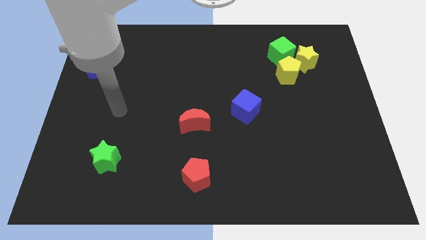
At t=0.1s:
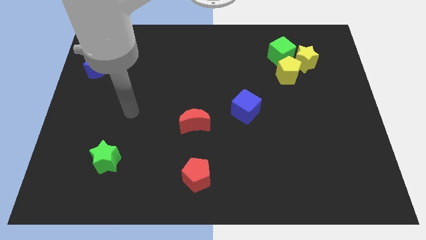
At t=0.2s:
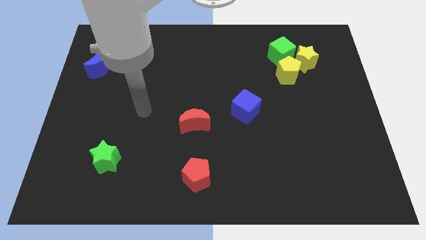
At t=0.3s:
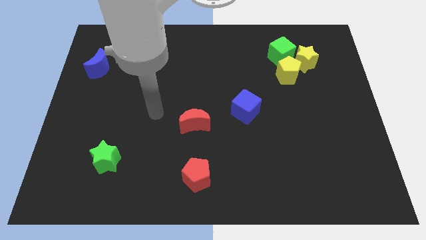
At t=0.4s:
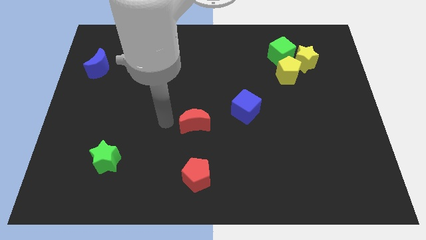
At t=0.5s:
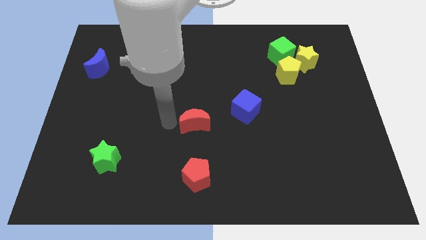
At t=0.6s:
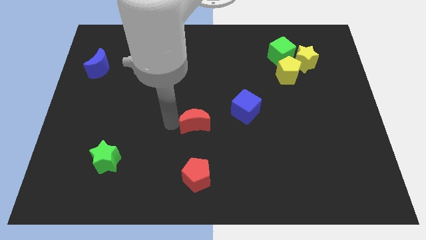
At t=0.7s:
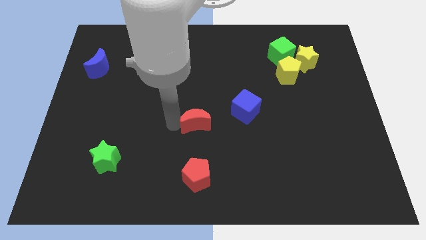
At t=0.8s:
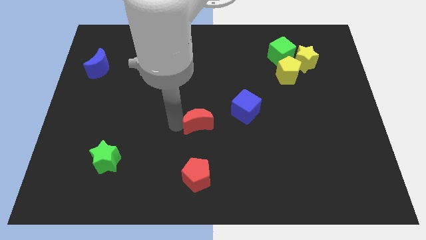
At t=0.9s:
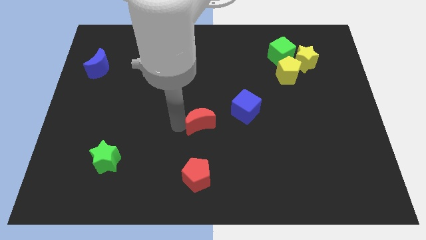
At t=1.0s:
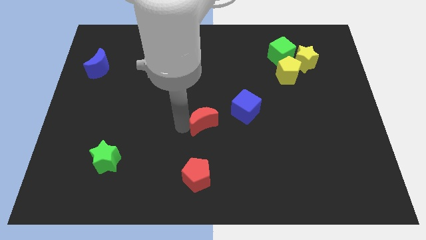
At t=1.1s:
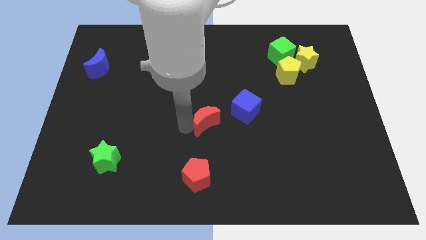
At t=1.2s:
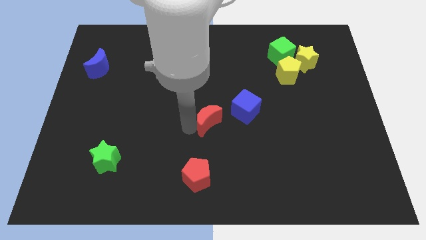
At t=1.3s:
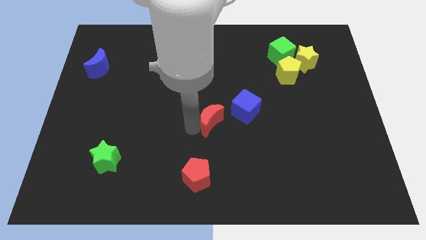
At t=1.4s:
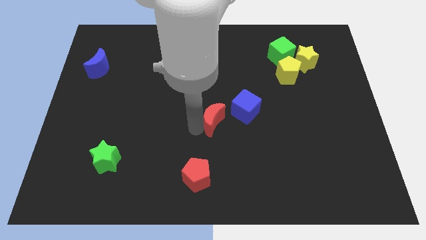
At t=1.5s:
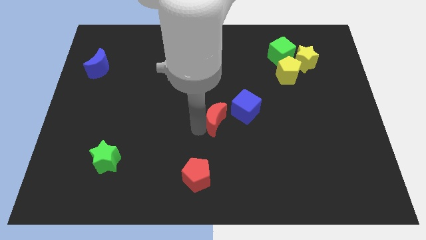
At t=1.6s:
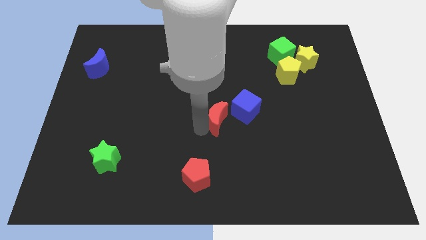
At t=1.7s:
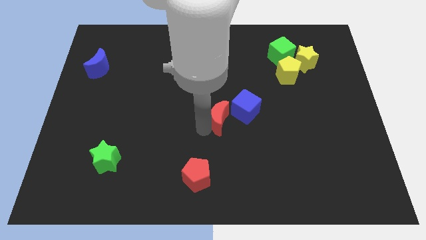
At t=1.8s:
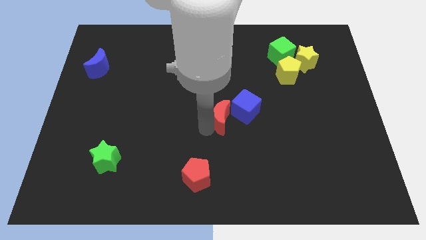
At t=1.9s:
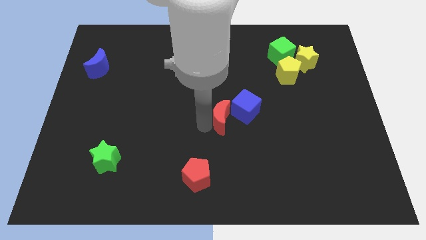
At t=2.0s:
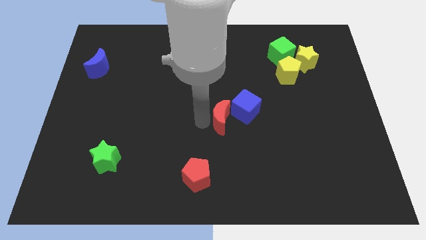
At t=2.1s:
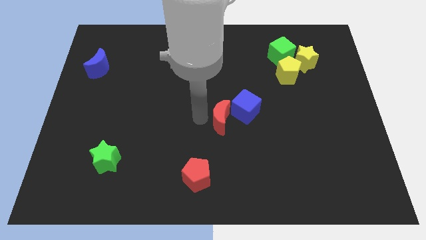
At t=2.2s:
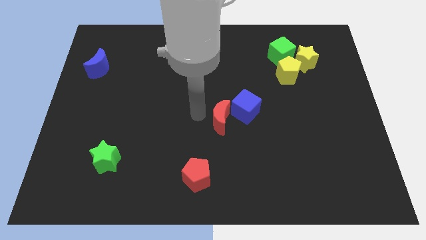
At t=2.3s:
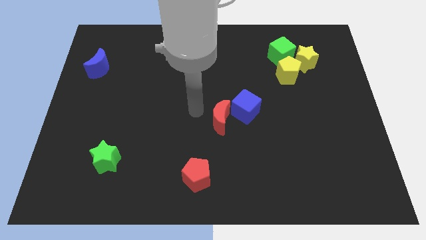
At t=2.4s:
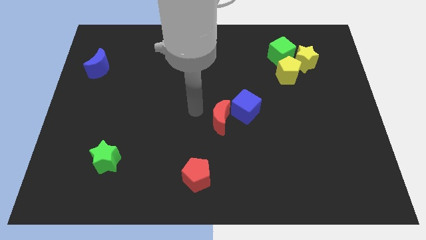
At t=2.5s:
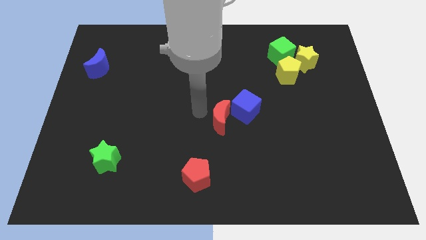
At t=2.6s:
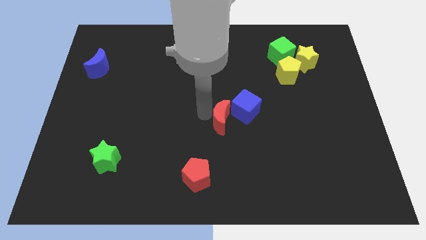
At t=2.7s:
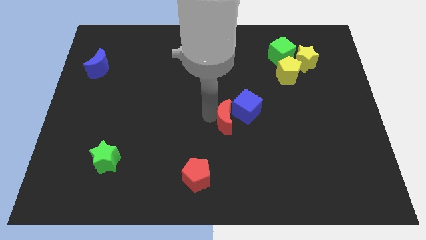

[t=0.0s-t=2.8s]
slightly push the red moon to the right

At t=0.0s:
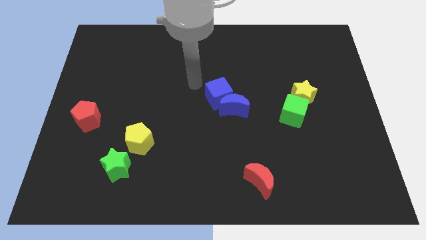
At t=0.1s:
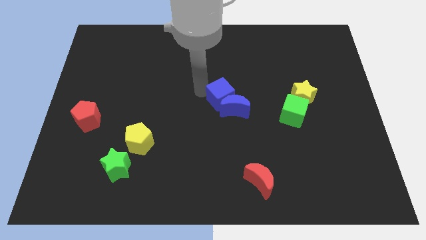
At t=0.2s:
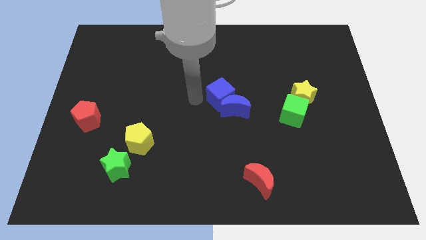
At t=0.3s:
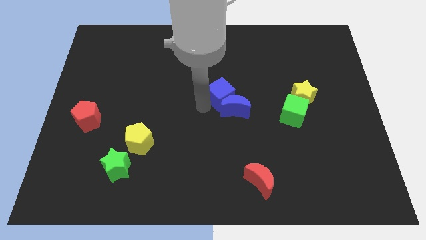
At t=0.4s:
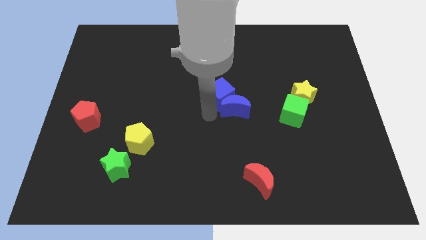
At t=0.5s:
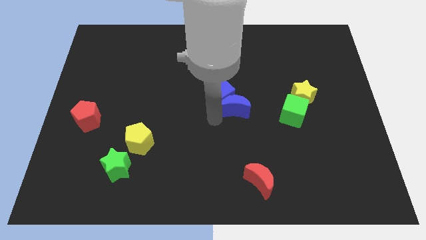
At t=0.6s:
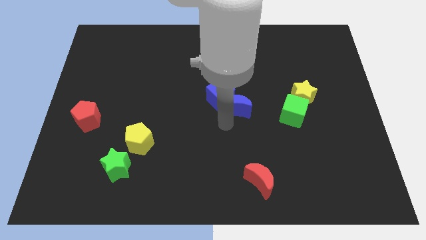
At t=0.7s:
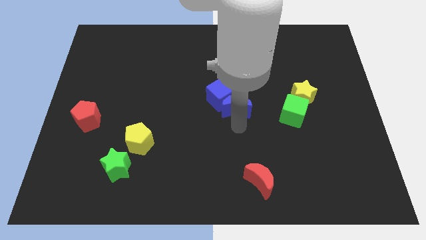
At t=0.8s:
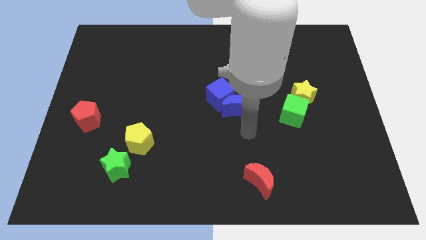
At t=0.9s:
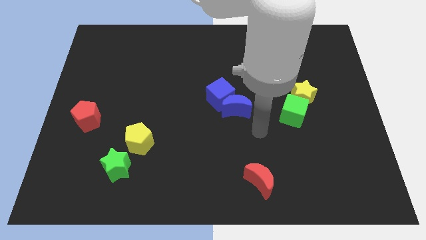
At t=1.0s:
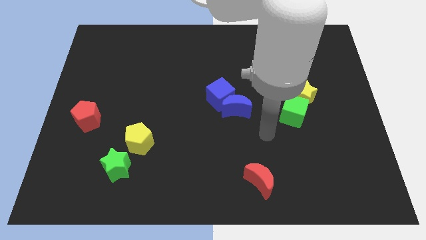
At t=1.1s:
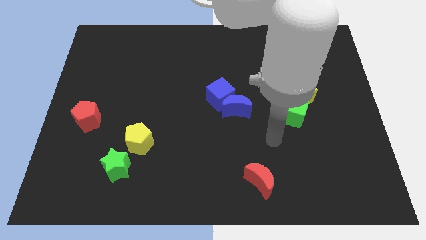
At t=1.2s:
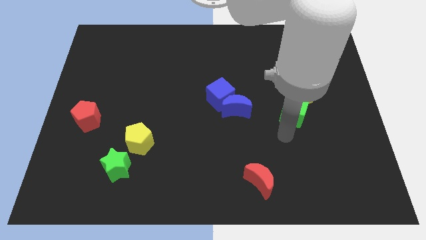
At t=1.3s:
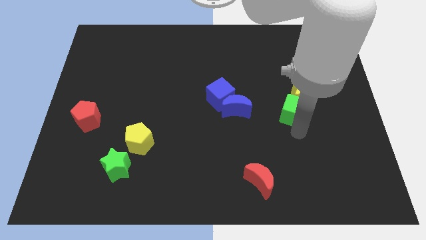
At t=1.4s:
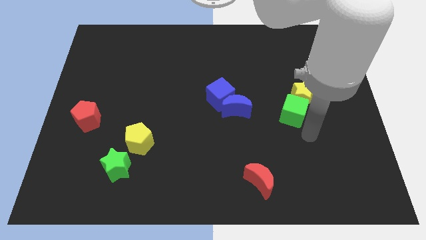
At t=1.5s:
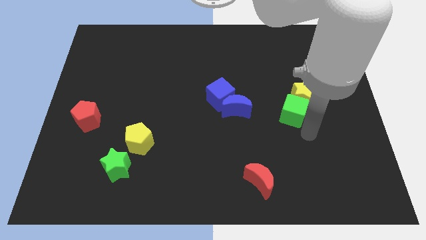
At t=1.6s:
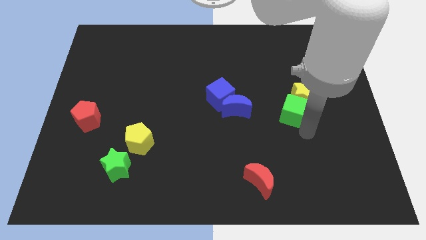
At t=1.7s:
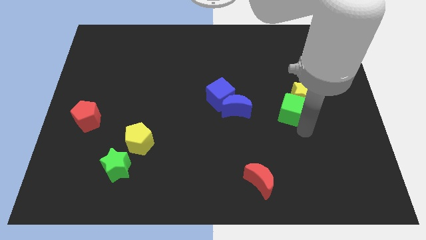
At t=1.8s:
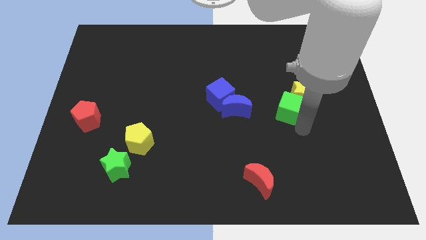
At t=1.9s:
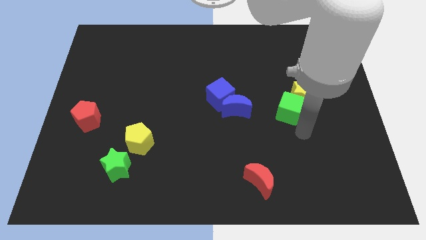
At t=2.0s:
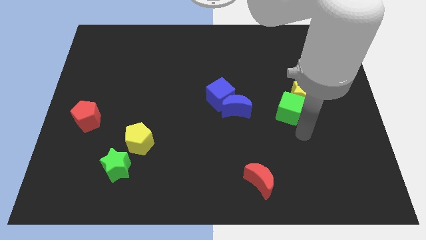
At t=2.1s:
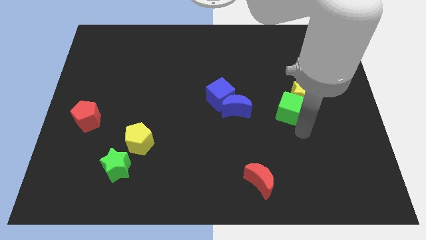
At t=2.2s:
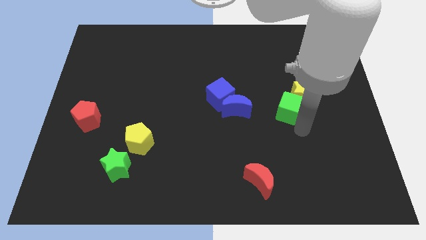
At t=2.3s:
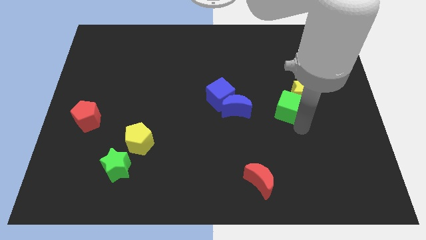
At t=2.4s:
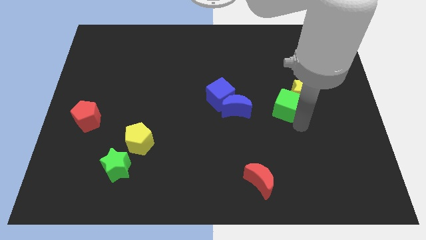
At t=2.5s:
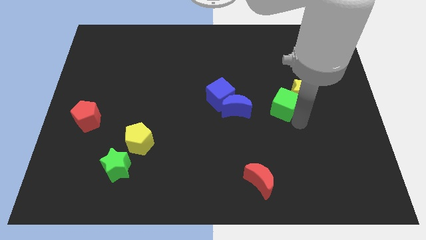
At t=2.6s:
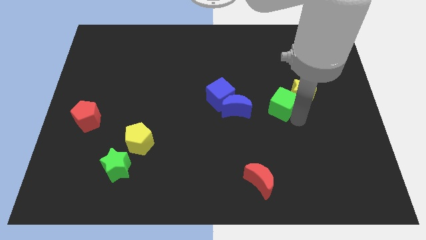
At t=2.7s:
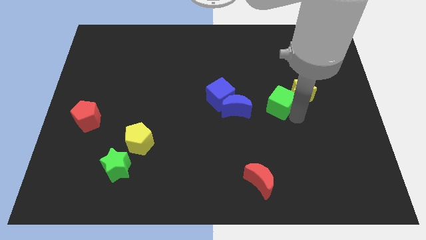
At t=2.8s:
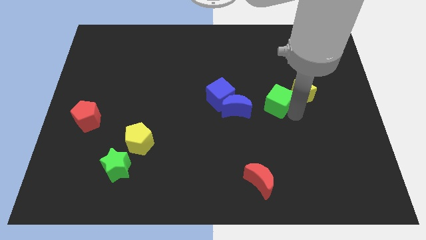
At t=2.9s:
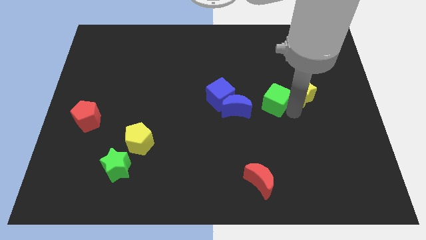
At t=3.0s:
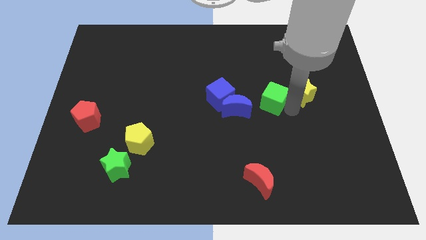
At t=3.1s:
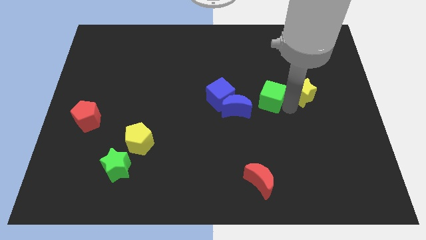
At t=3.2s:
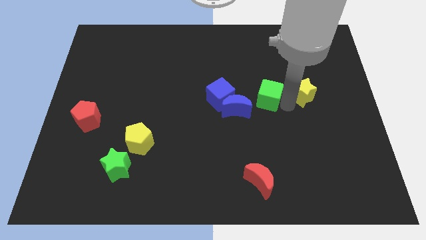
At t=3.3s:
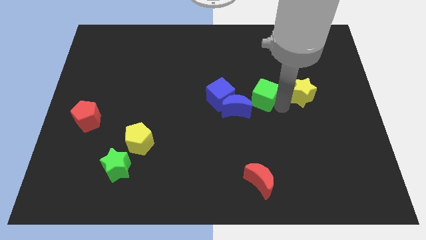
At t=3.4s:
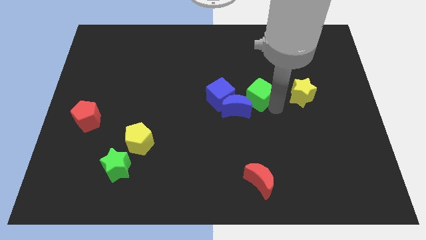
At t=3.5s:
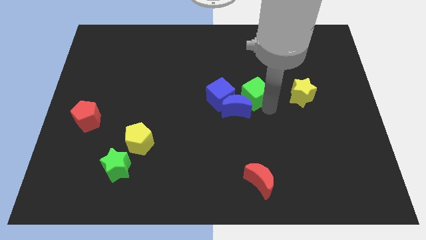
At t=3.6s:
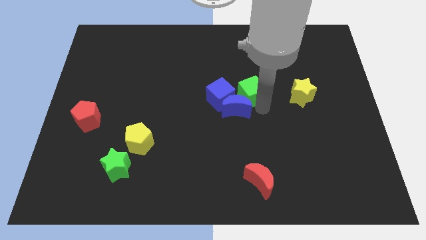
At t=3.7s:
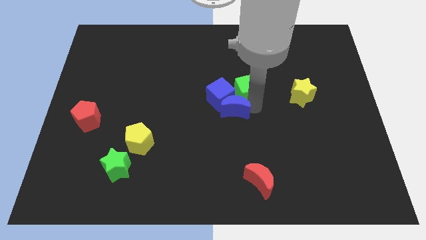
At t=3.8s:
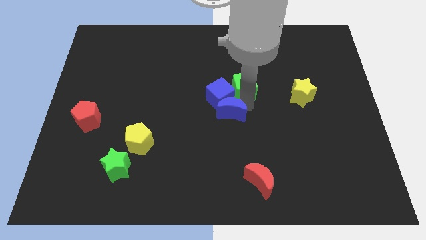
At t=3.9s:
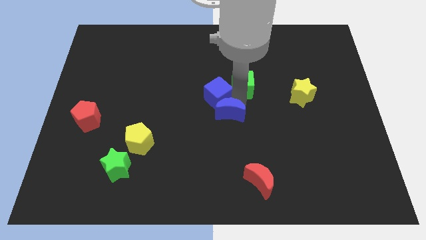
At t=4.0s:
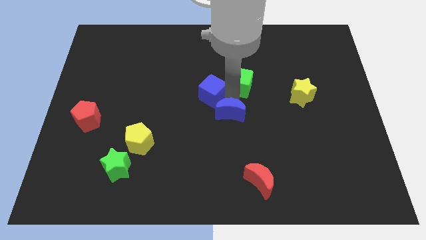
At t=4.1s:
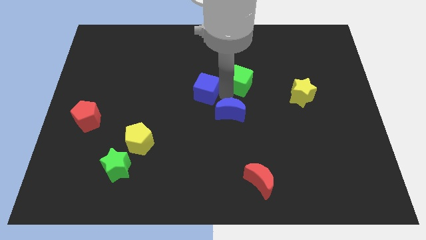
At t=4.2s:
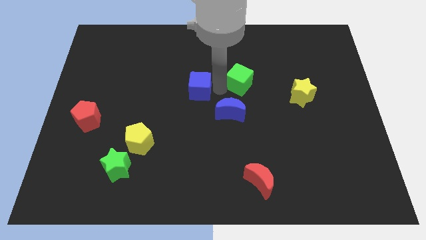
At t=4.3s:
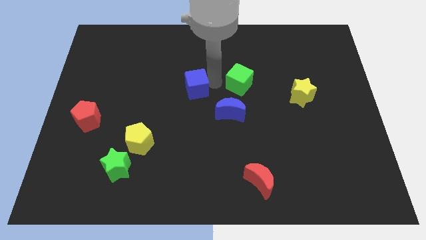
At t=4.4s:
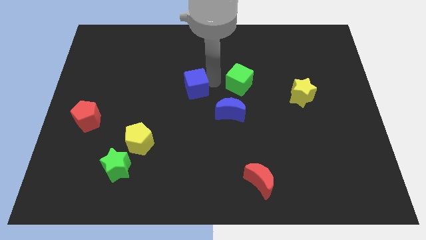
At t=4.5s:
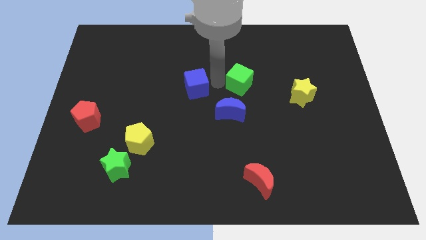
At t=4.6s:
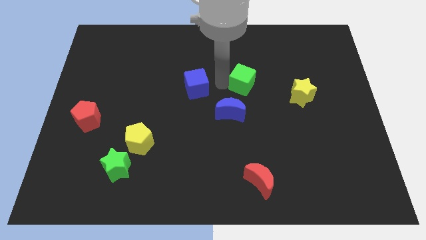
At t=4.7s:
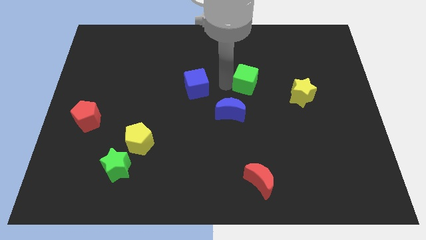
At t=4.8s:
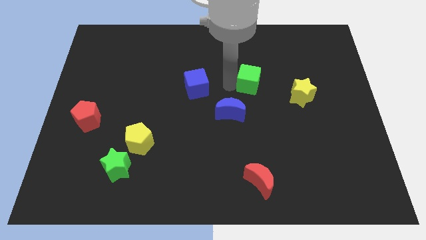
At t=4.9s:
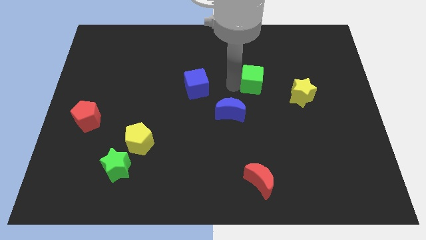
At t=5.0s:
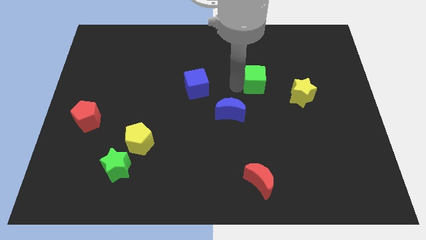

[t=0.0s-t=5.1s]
slightly move the green cube upwards

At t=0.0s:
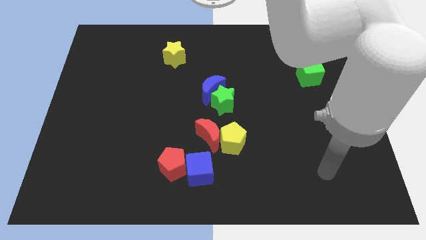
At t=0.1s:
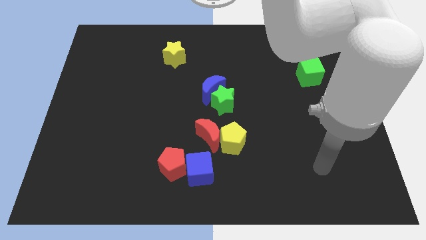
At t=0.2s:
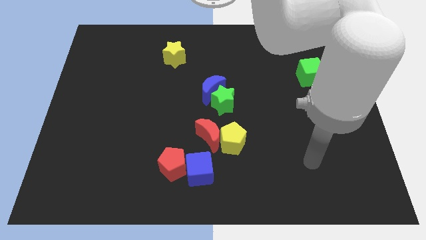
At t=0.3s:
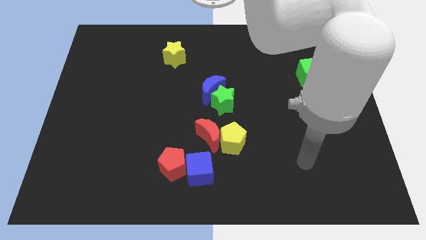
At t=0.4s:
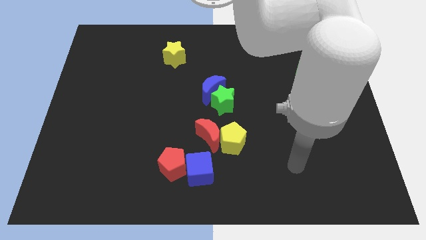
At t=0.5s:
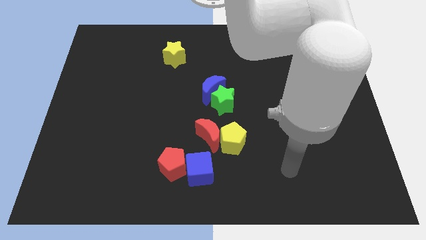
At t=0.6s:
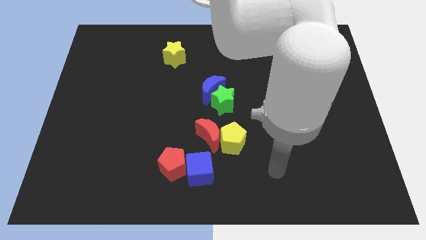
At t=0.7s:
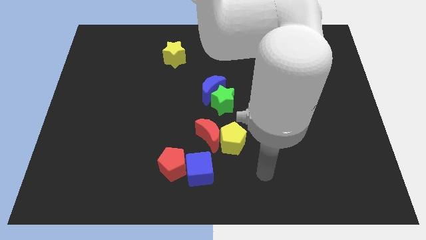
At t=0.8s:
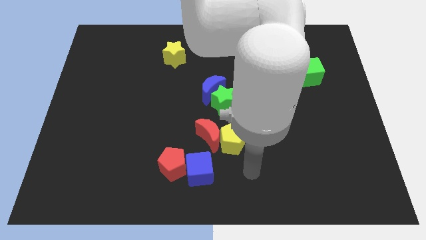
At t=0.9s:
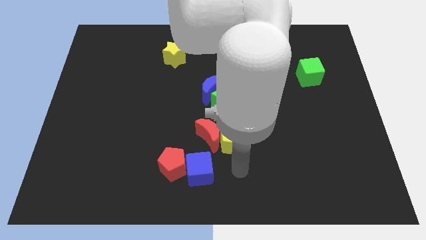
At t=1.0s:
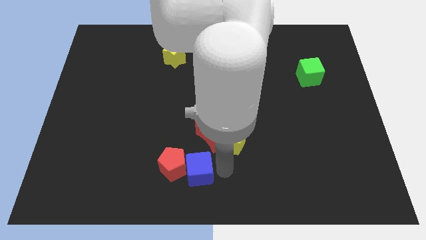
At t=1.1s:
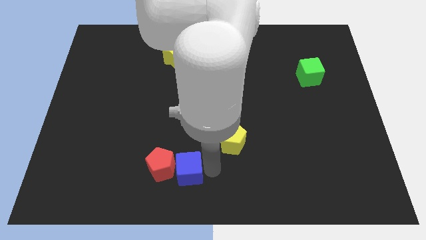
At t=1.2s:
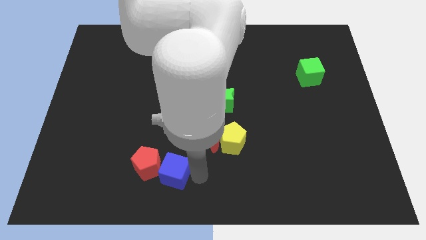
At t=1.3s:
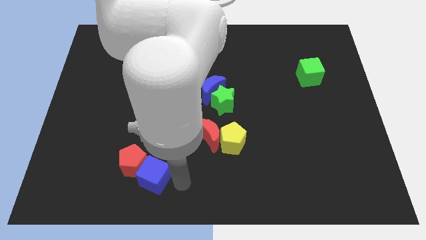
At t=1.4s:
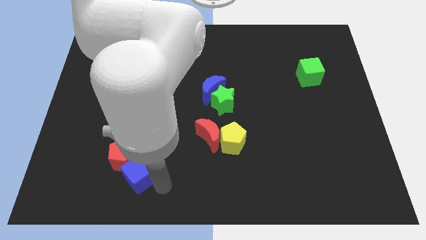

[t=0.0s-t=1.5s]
push the red pentagon up and left diagonally a little bit
